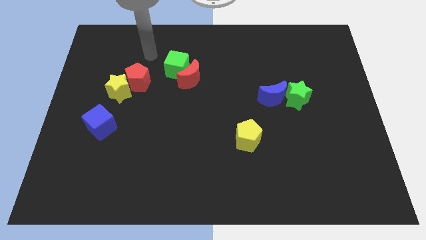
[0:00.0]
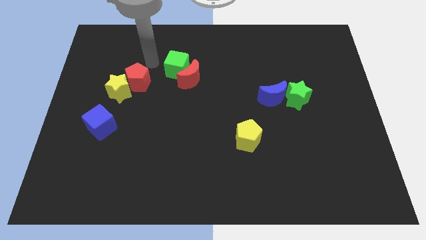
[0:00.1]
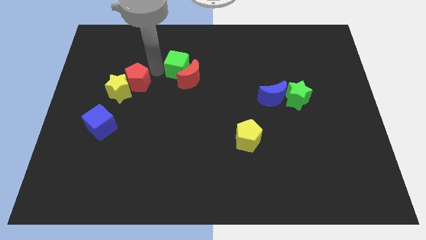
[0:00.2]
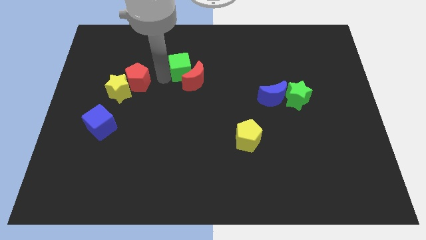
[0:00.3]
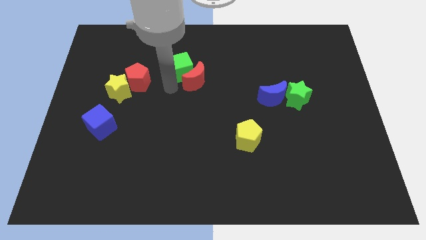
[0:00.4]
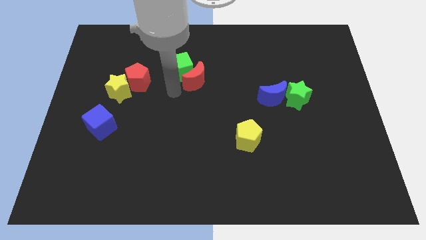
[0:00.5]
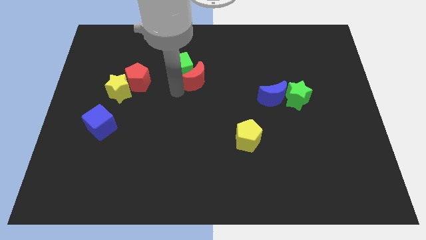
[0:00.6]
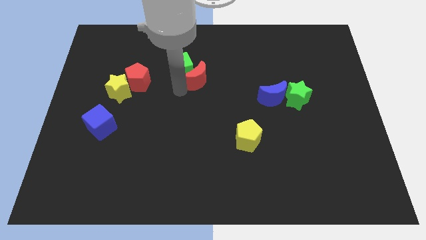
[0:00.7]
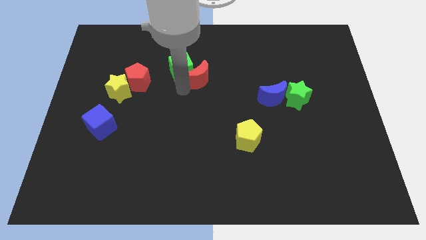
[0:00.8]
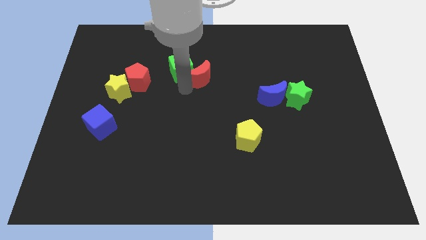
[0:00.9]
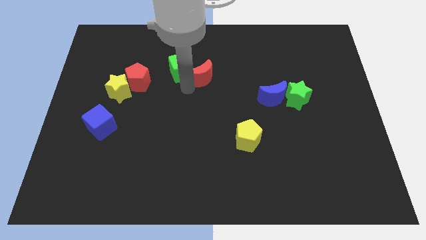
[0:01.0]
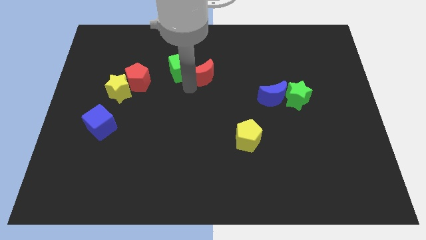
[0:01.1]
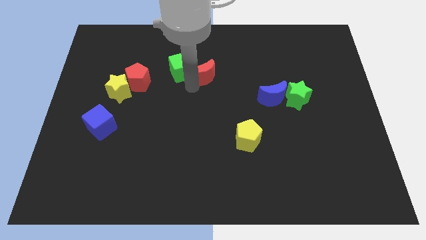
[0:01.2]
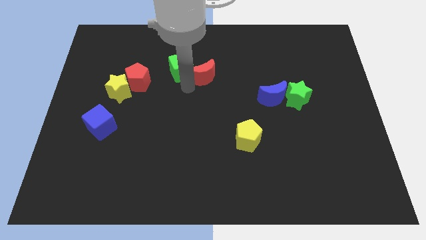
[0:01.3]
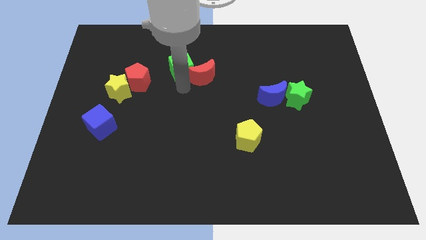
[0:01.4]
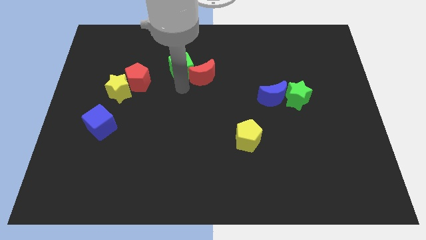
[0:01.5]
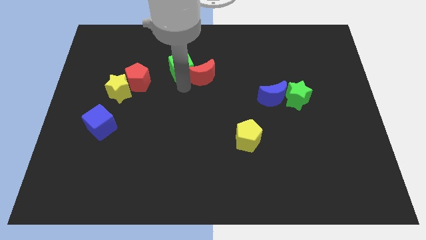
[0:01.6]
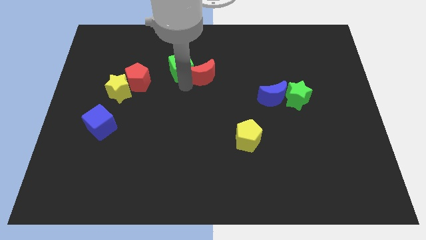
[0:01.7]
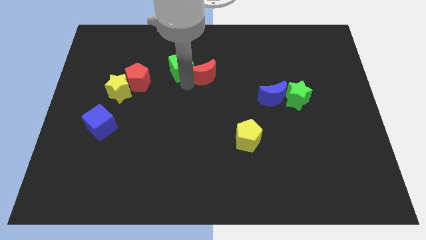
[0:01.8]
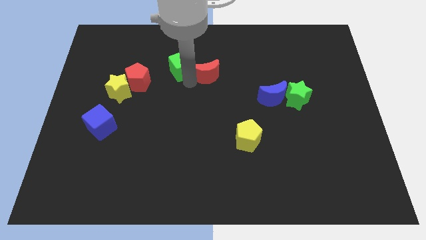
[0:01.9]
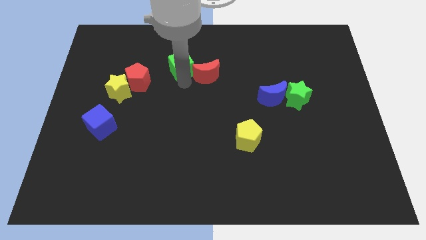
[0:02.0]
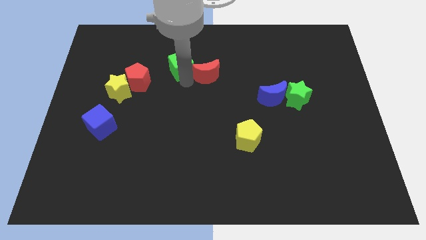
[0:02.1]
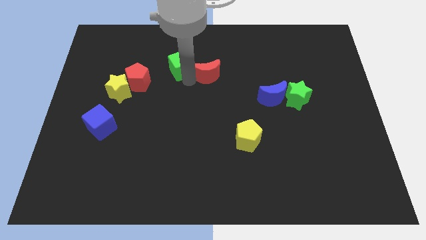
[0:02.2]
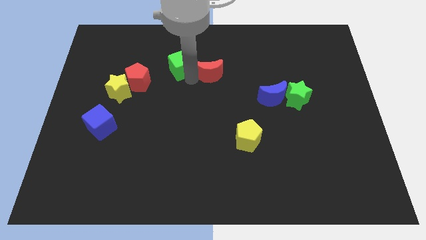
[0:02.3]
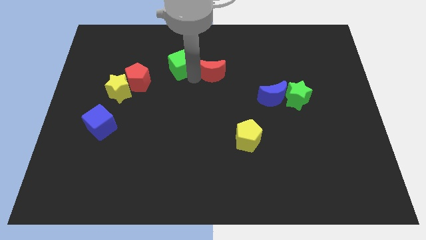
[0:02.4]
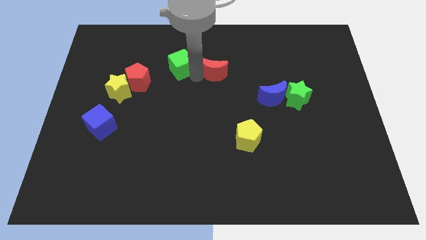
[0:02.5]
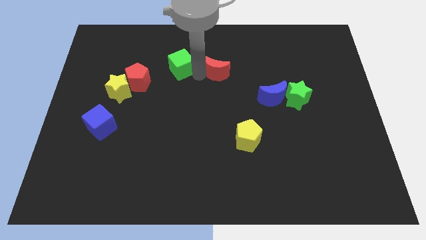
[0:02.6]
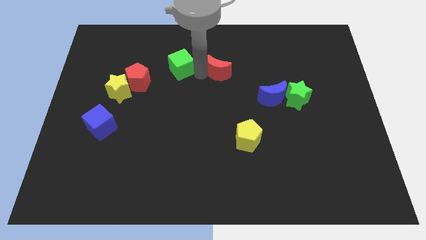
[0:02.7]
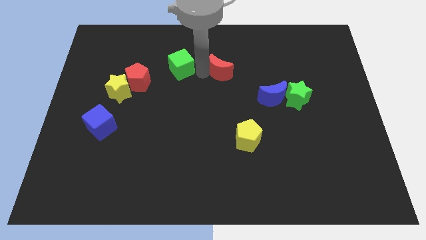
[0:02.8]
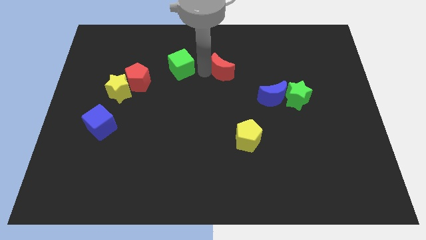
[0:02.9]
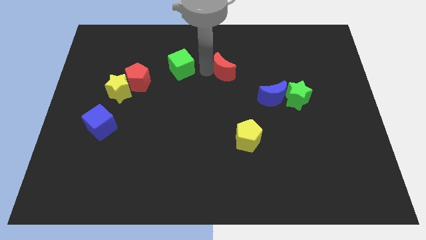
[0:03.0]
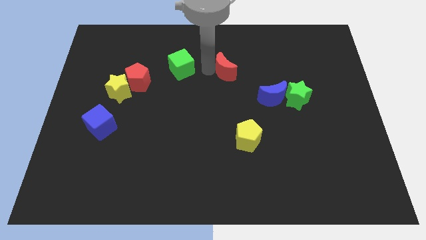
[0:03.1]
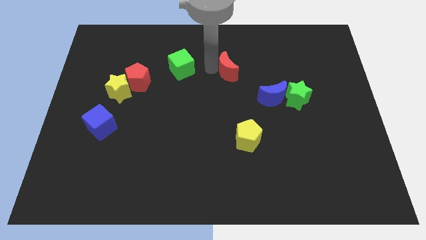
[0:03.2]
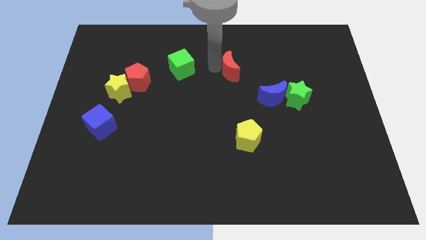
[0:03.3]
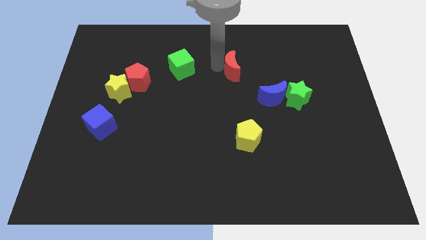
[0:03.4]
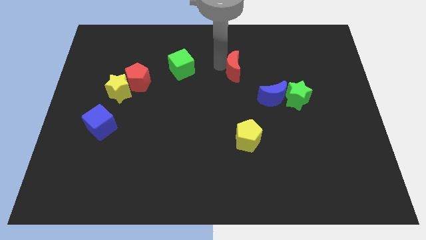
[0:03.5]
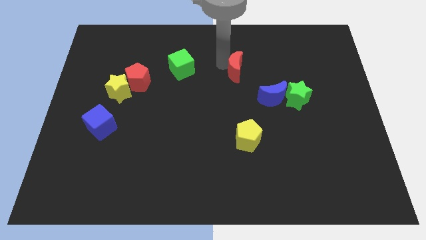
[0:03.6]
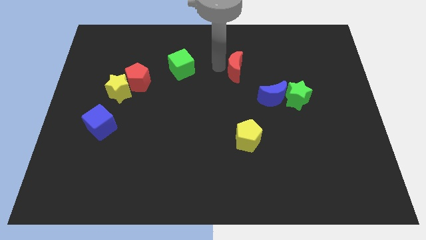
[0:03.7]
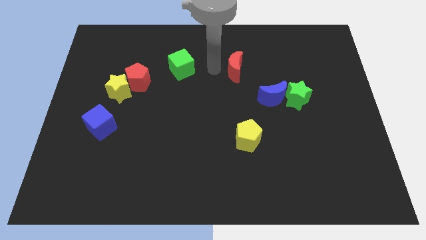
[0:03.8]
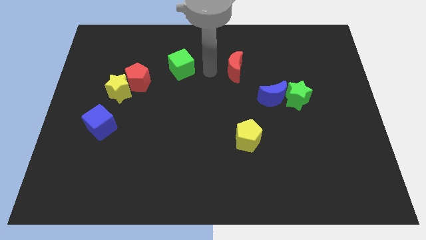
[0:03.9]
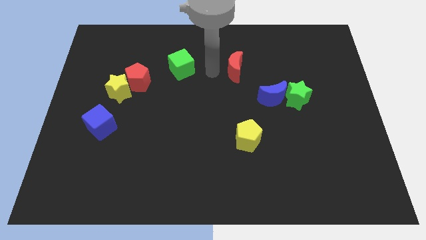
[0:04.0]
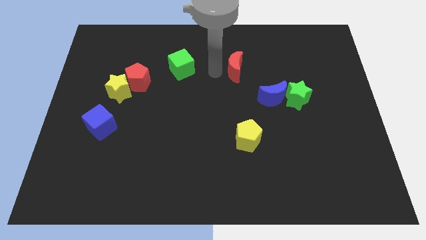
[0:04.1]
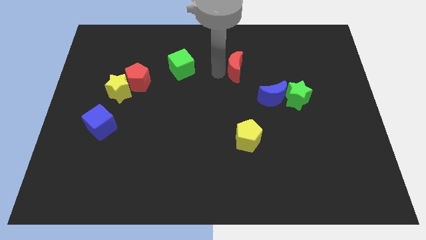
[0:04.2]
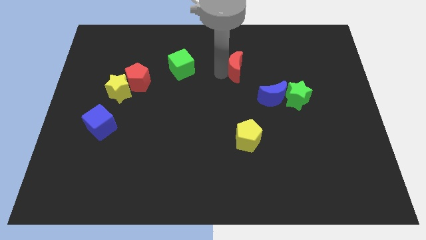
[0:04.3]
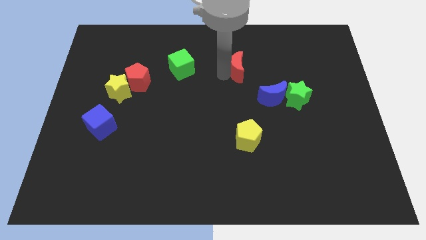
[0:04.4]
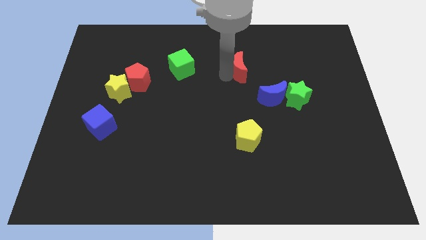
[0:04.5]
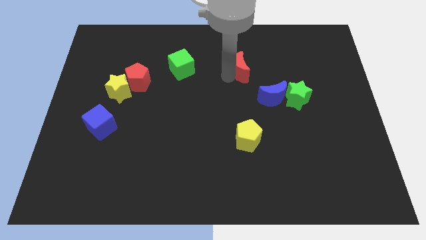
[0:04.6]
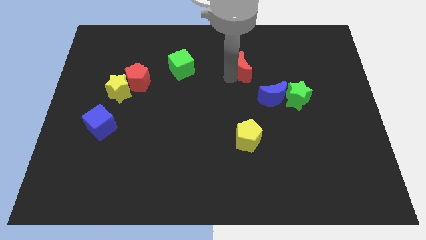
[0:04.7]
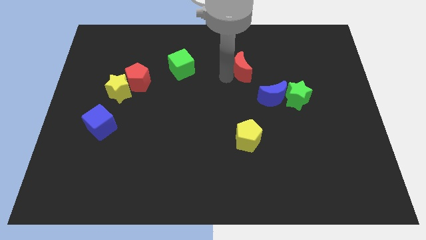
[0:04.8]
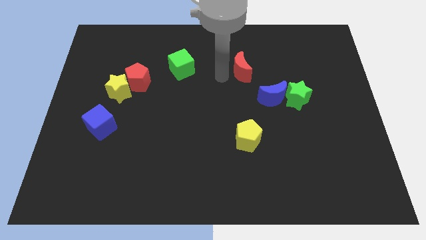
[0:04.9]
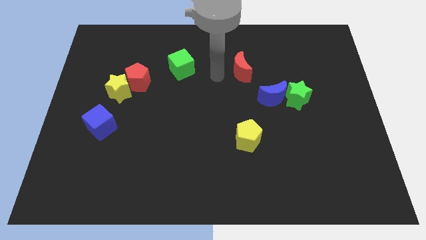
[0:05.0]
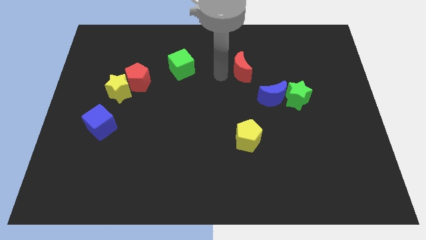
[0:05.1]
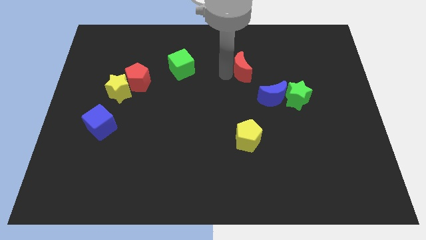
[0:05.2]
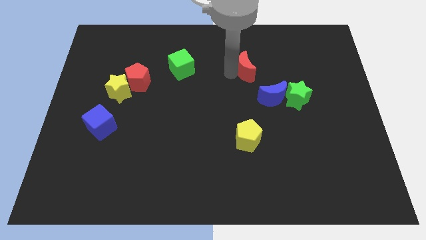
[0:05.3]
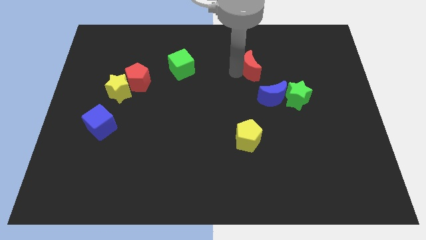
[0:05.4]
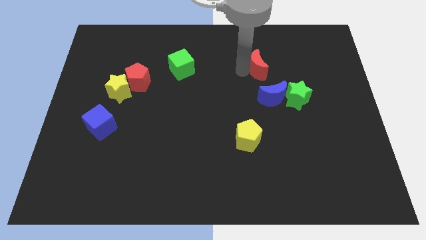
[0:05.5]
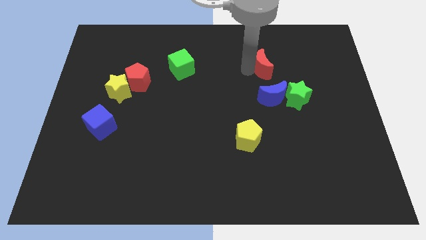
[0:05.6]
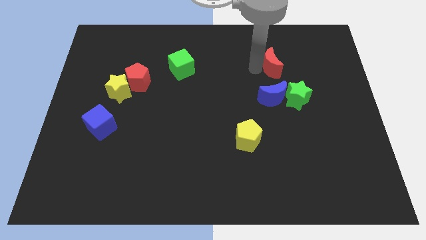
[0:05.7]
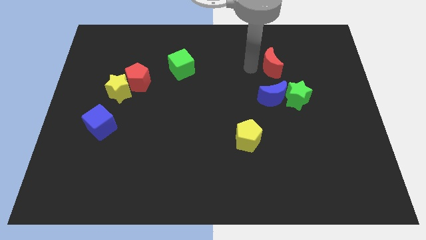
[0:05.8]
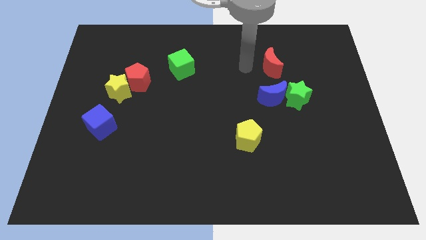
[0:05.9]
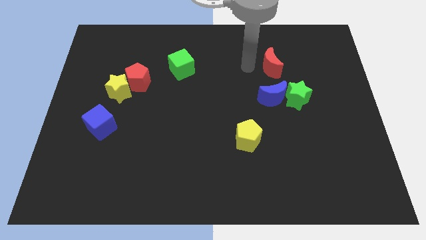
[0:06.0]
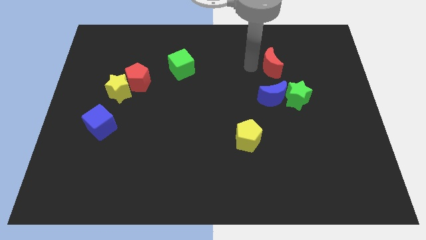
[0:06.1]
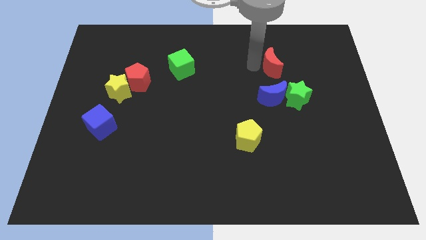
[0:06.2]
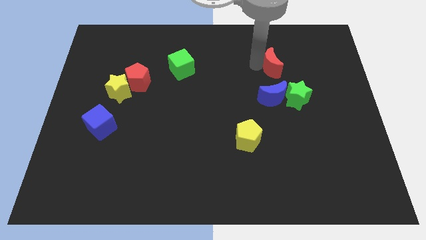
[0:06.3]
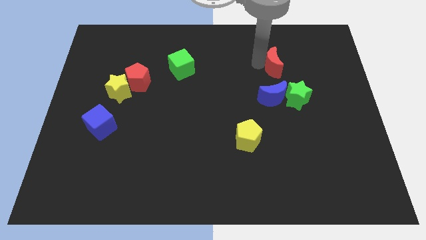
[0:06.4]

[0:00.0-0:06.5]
slide the red moon above the green star

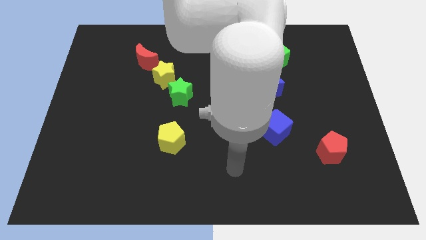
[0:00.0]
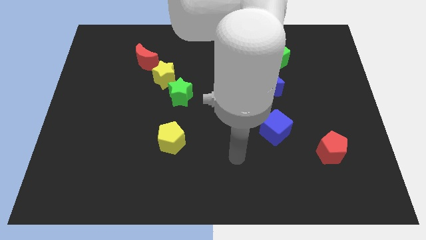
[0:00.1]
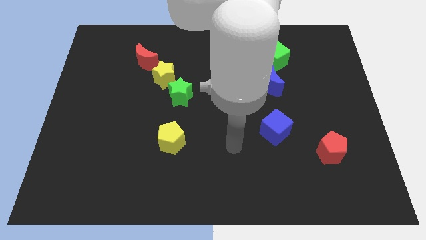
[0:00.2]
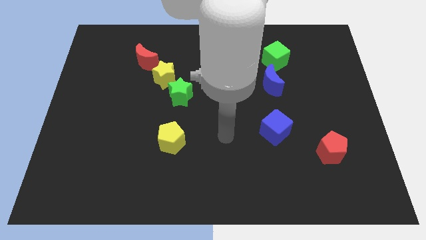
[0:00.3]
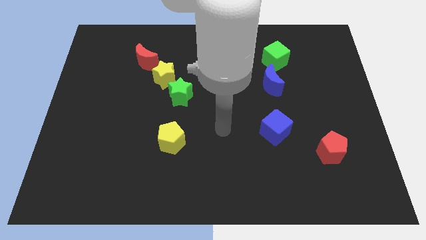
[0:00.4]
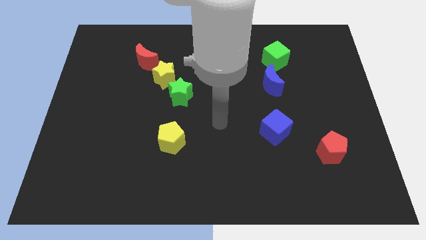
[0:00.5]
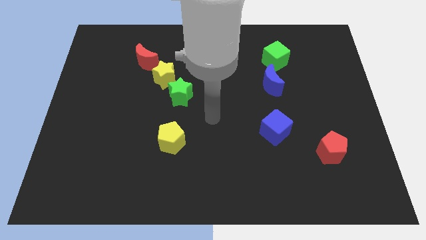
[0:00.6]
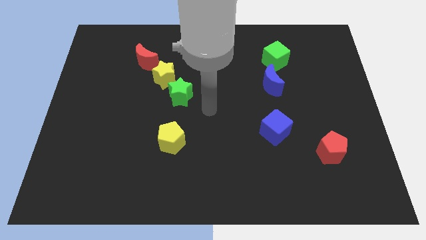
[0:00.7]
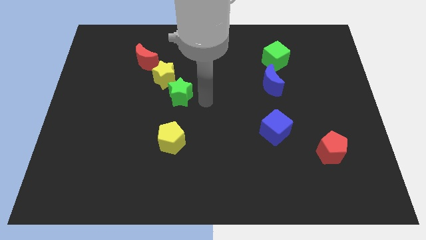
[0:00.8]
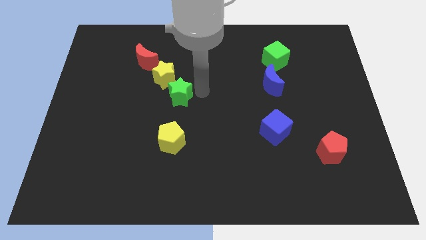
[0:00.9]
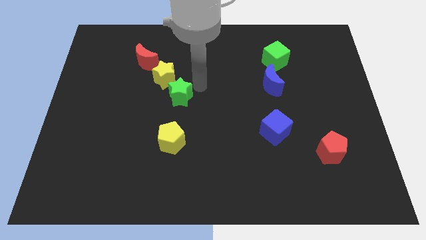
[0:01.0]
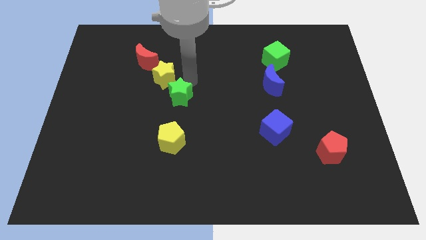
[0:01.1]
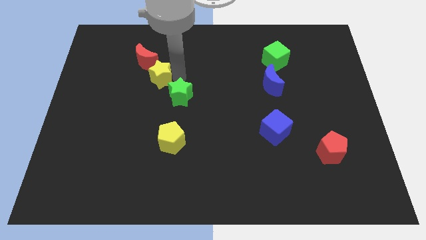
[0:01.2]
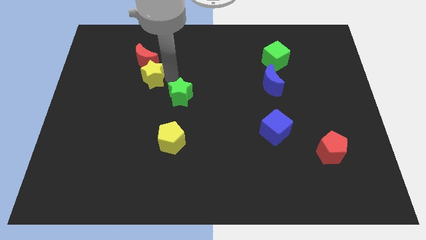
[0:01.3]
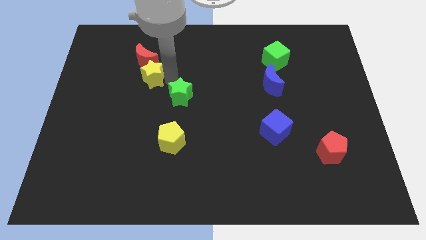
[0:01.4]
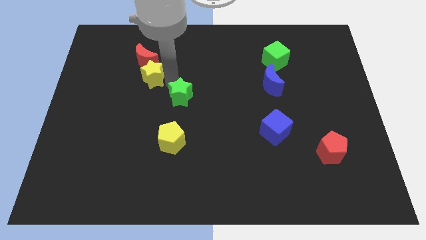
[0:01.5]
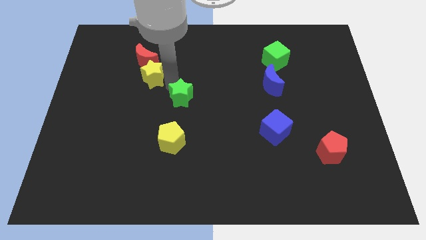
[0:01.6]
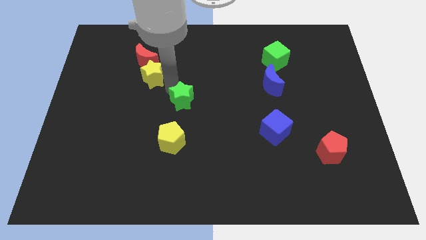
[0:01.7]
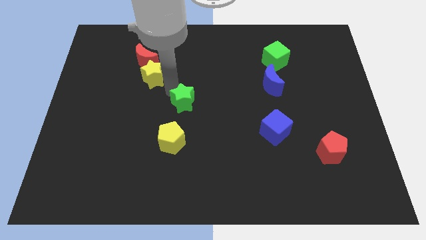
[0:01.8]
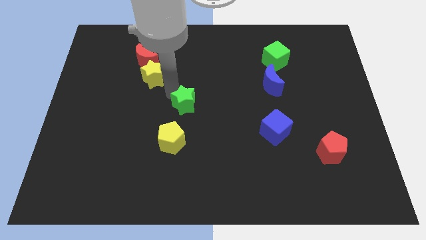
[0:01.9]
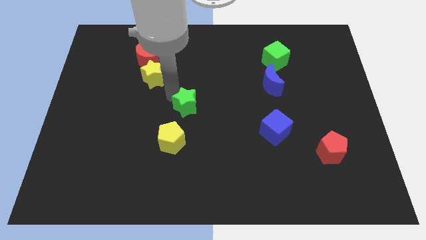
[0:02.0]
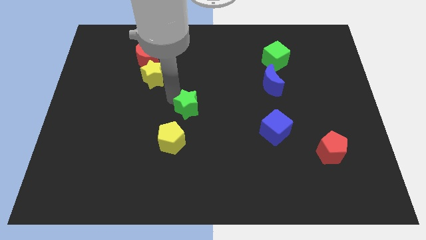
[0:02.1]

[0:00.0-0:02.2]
put the green star diagonally up and to the right of the yellow pentagon
